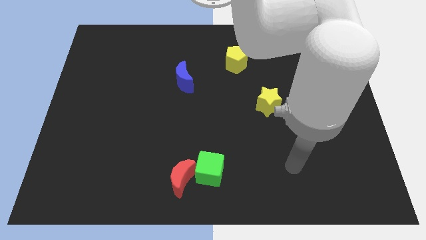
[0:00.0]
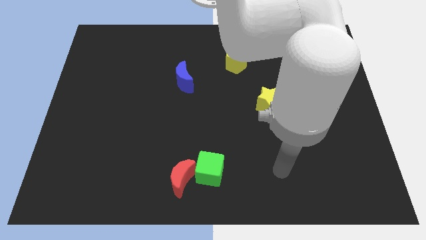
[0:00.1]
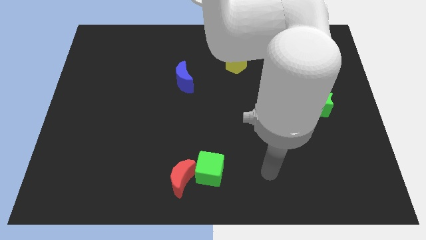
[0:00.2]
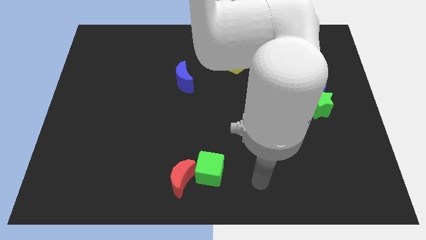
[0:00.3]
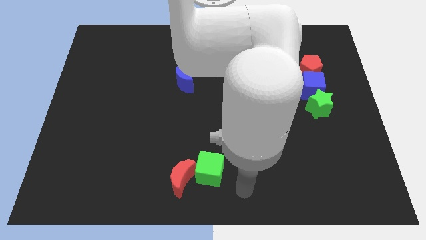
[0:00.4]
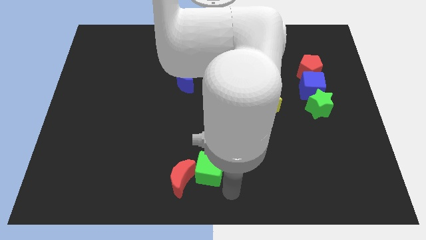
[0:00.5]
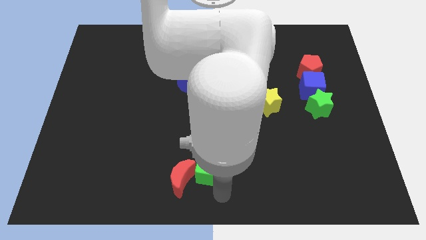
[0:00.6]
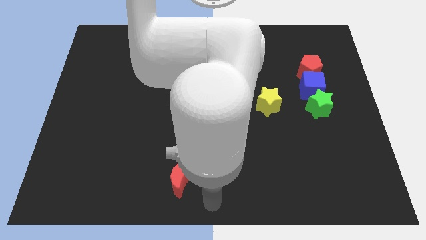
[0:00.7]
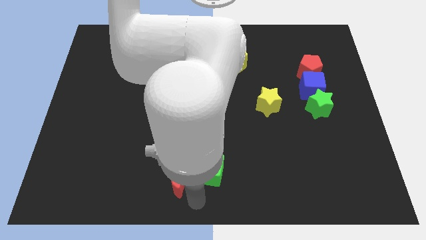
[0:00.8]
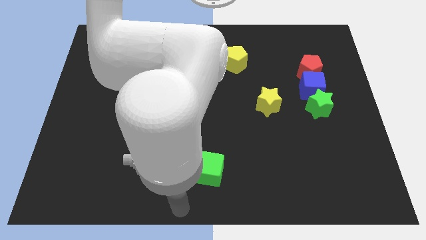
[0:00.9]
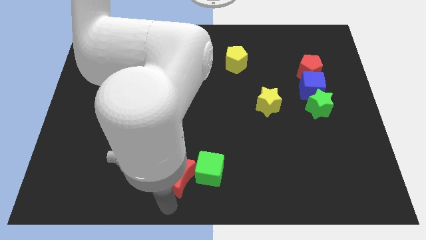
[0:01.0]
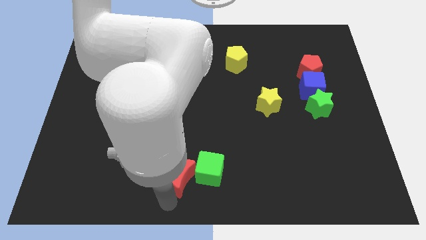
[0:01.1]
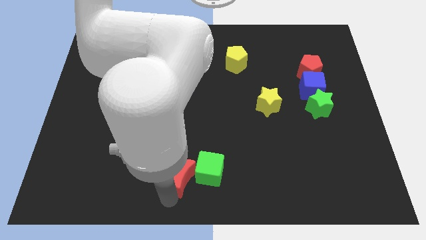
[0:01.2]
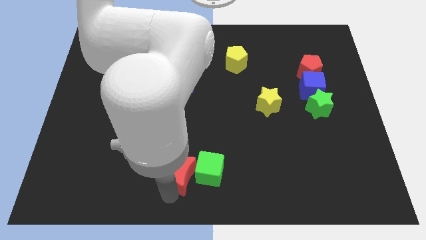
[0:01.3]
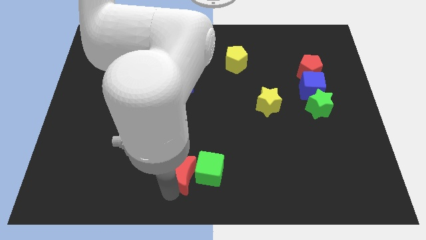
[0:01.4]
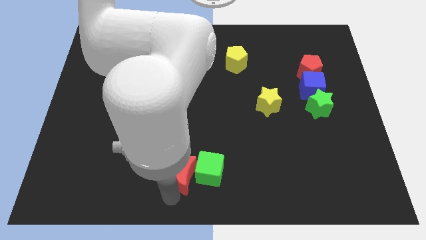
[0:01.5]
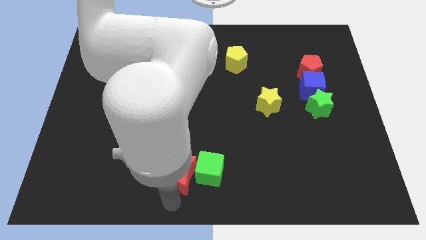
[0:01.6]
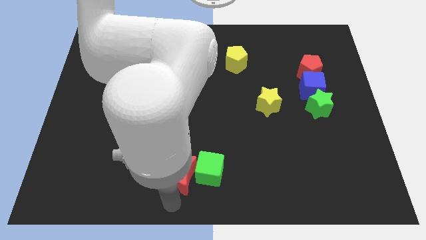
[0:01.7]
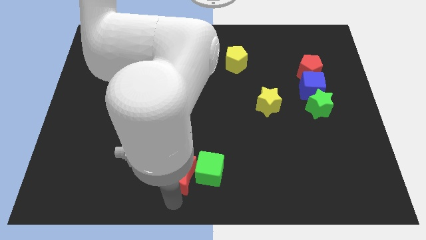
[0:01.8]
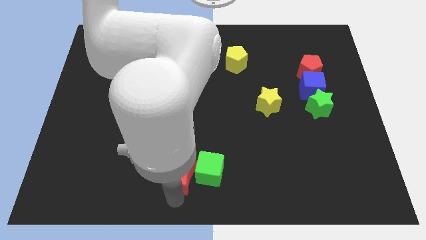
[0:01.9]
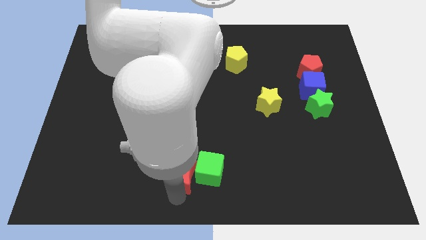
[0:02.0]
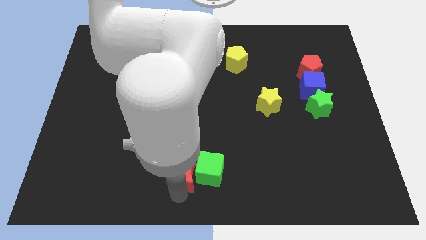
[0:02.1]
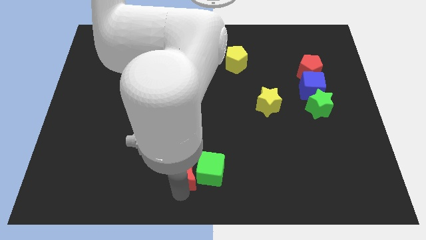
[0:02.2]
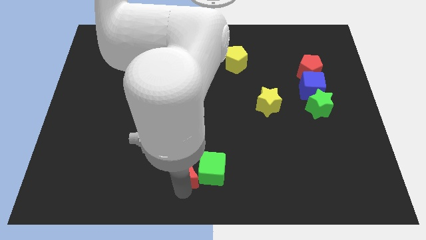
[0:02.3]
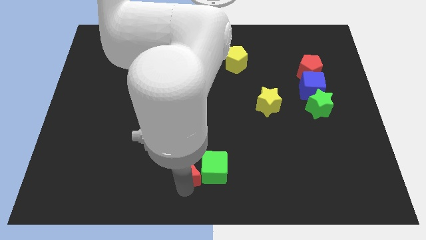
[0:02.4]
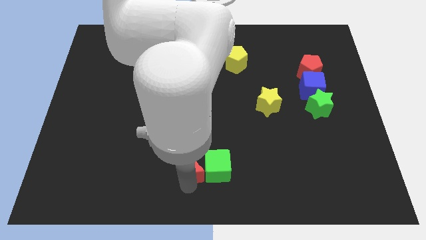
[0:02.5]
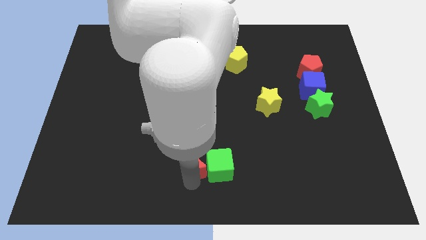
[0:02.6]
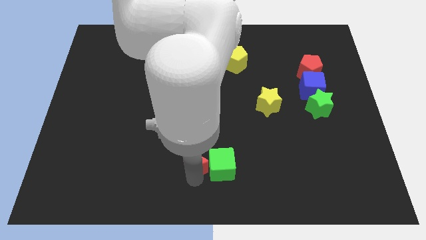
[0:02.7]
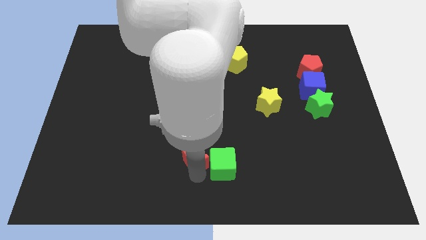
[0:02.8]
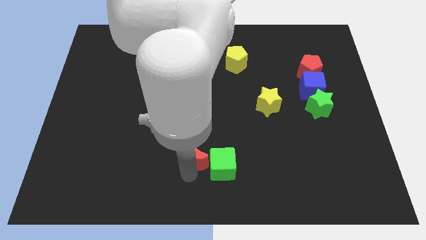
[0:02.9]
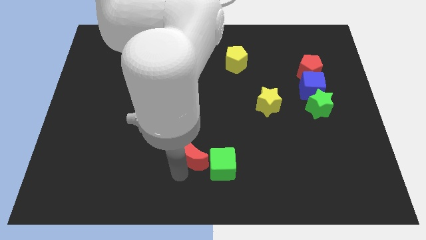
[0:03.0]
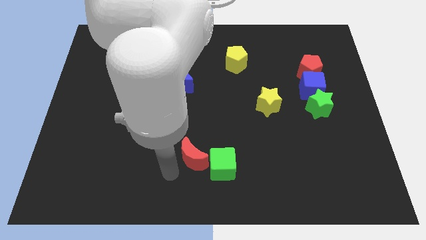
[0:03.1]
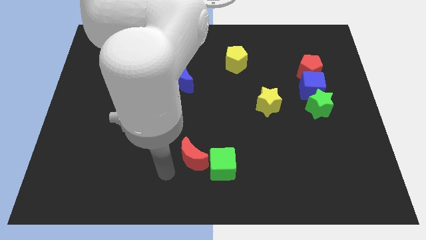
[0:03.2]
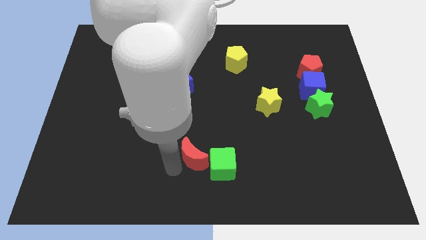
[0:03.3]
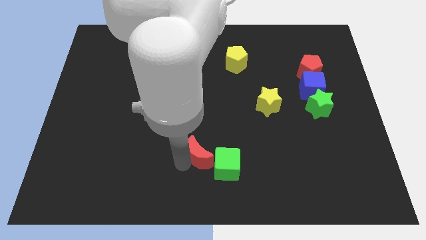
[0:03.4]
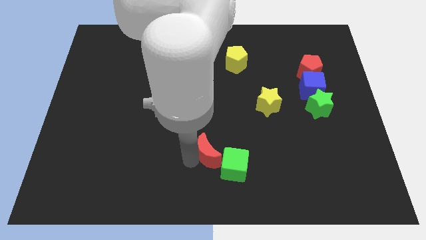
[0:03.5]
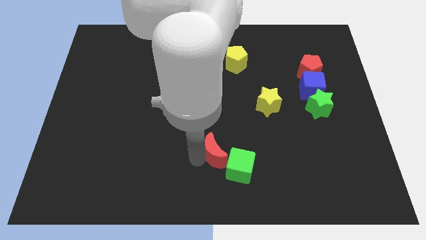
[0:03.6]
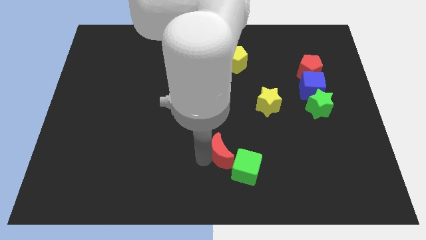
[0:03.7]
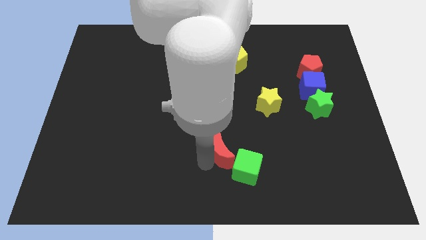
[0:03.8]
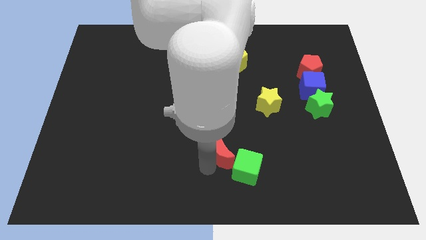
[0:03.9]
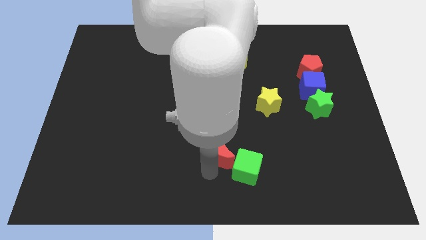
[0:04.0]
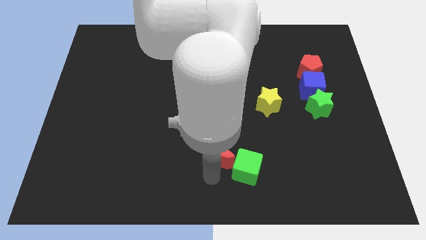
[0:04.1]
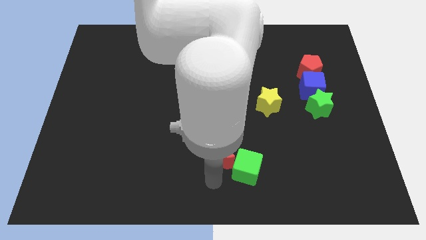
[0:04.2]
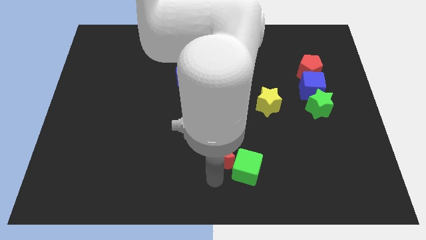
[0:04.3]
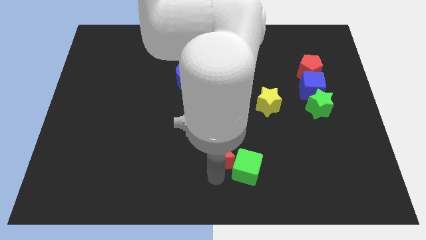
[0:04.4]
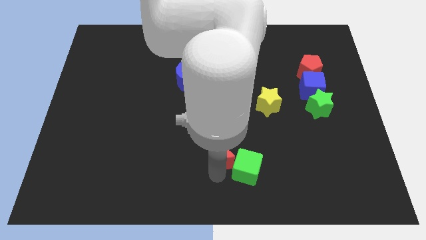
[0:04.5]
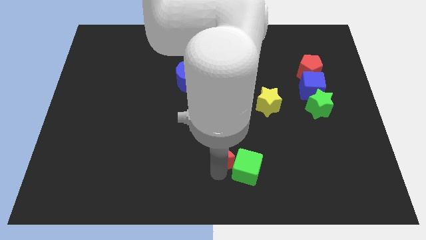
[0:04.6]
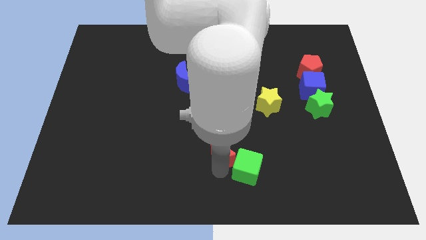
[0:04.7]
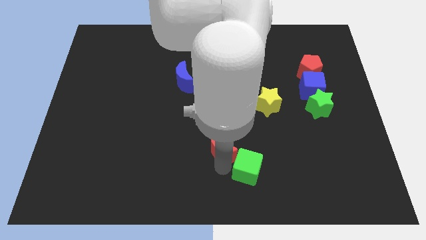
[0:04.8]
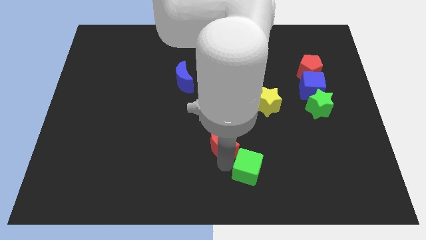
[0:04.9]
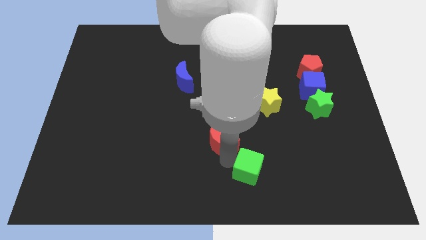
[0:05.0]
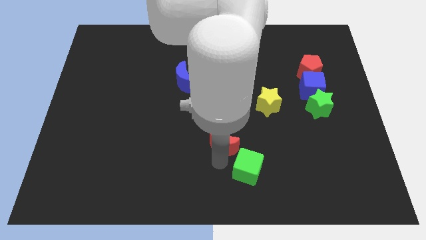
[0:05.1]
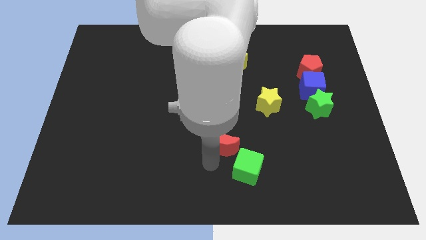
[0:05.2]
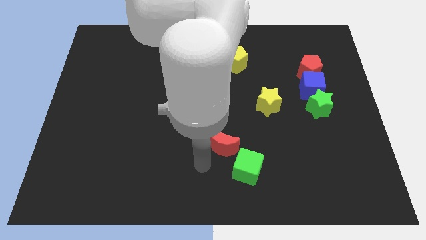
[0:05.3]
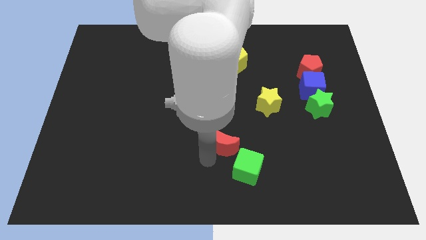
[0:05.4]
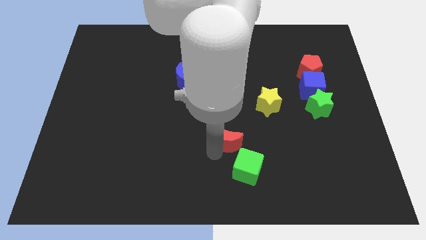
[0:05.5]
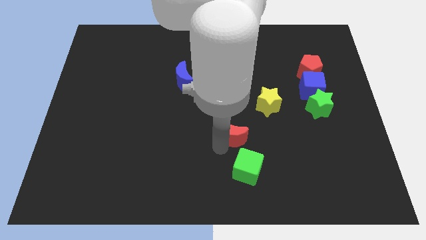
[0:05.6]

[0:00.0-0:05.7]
push the red moon to the bottom left of the yellow star

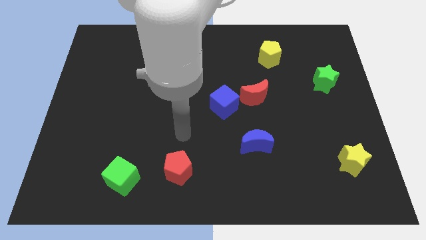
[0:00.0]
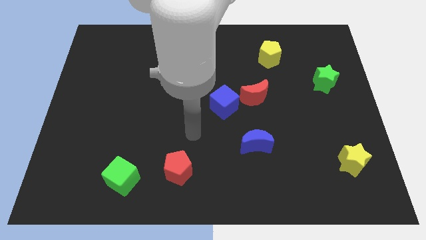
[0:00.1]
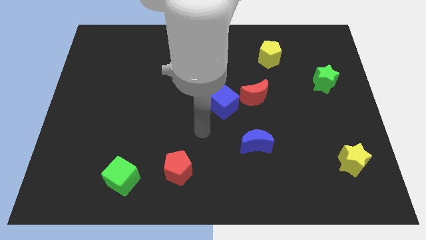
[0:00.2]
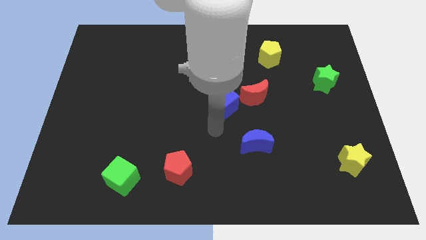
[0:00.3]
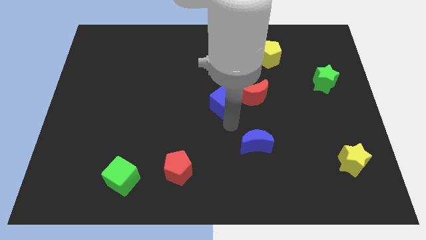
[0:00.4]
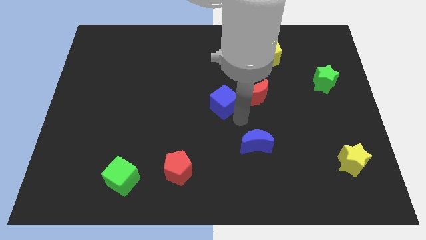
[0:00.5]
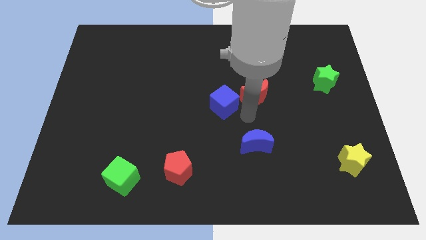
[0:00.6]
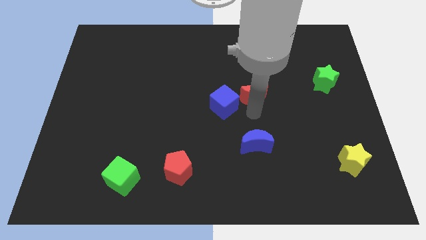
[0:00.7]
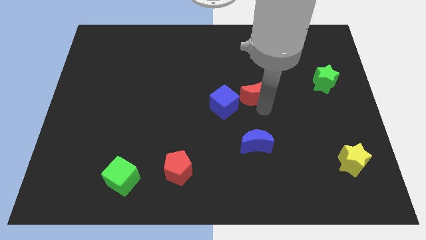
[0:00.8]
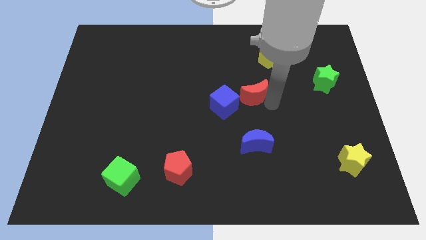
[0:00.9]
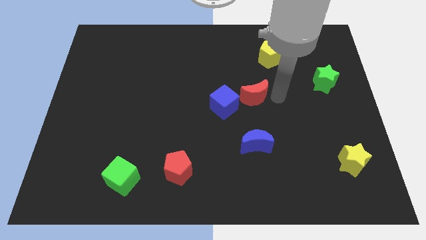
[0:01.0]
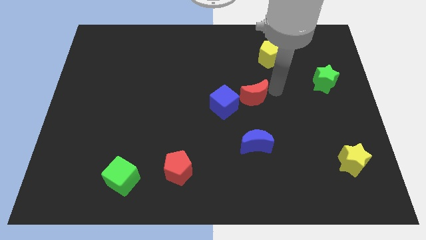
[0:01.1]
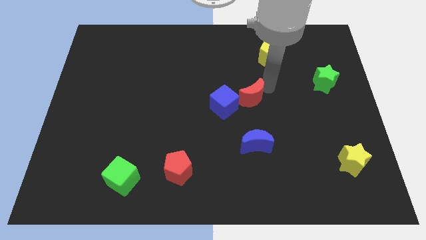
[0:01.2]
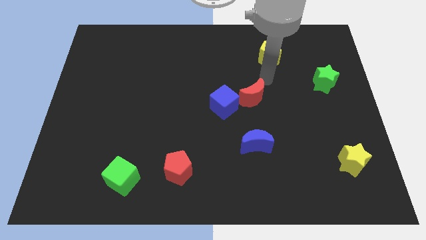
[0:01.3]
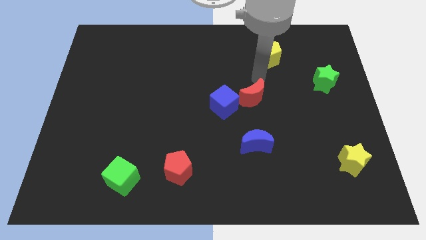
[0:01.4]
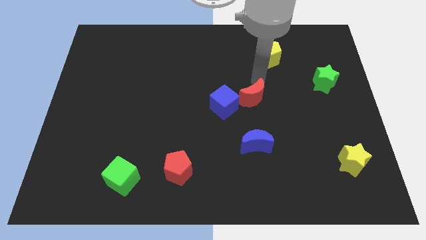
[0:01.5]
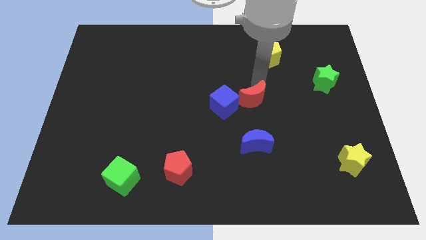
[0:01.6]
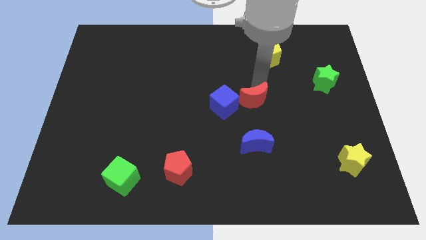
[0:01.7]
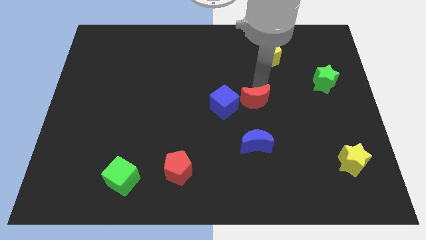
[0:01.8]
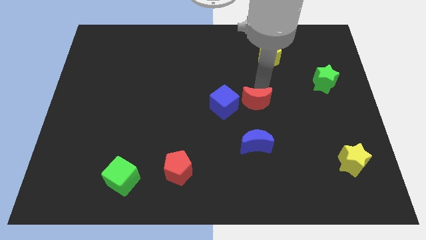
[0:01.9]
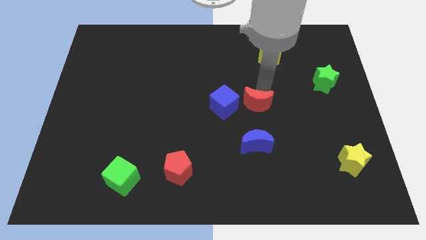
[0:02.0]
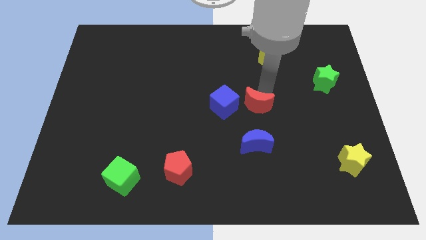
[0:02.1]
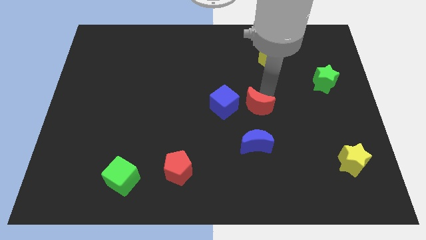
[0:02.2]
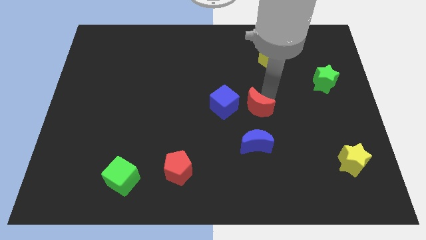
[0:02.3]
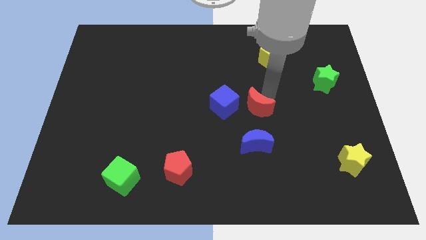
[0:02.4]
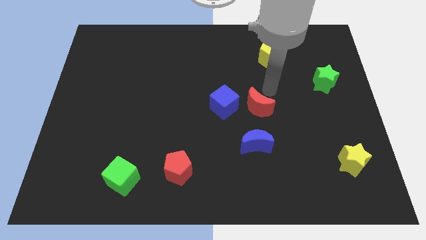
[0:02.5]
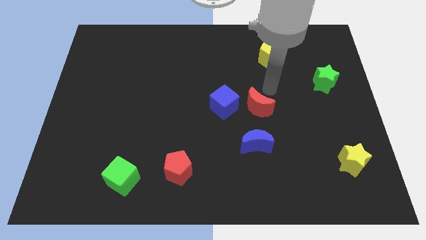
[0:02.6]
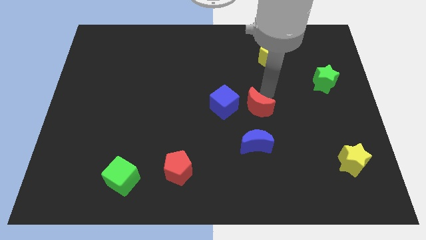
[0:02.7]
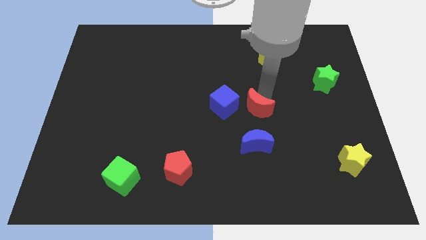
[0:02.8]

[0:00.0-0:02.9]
move the red moon diagonally down and to the right of the blue cube
